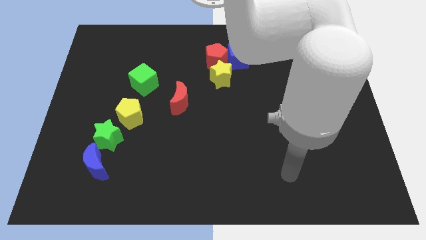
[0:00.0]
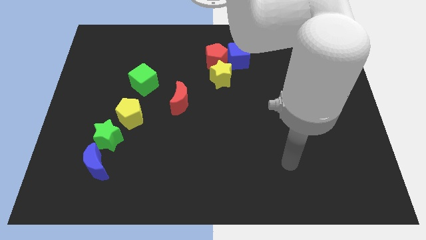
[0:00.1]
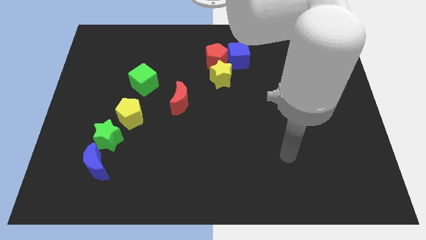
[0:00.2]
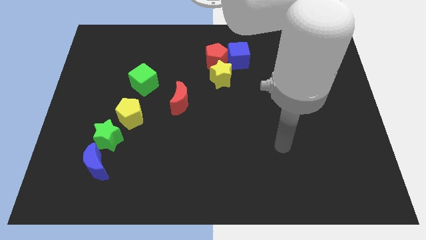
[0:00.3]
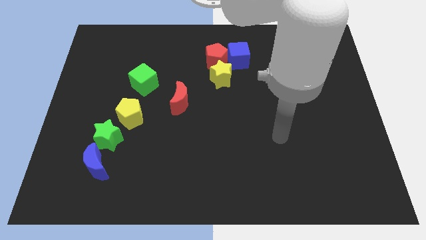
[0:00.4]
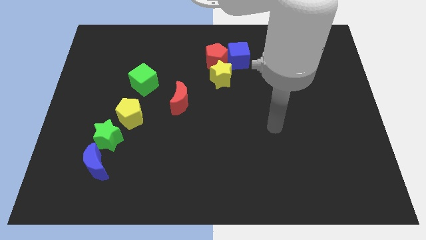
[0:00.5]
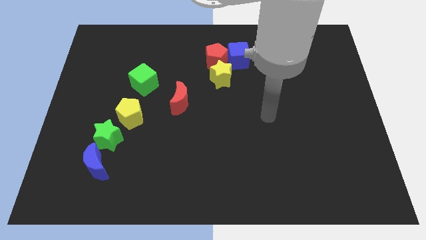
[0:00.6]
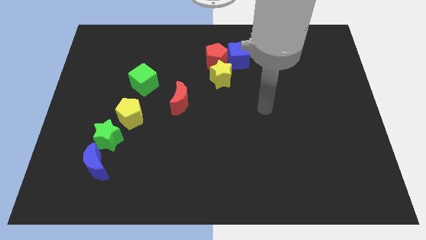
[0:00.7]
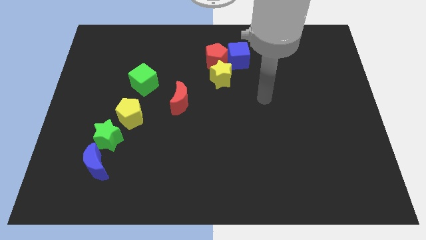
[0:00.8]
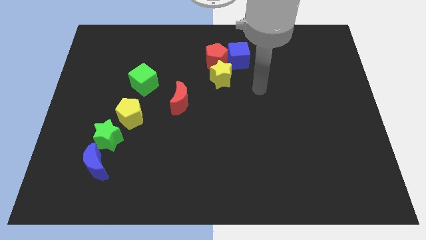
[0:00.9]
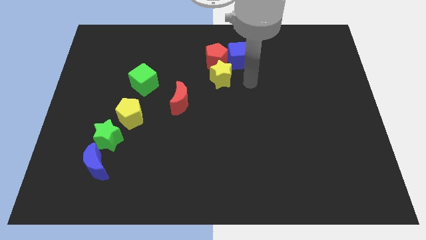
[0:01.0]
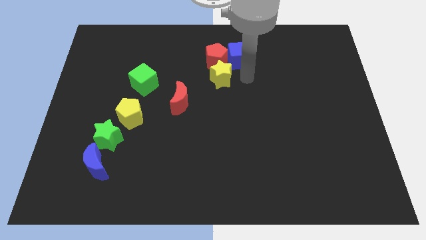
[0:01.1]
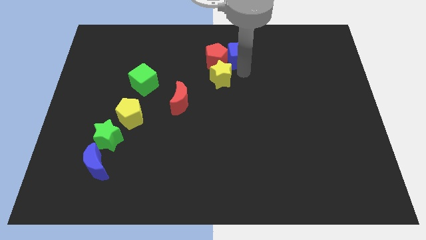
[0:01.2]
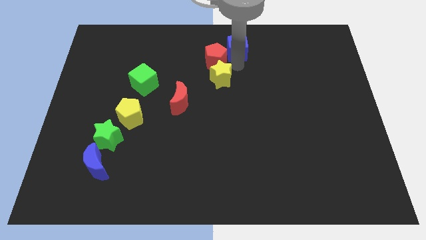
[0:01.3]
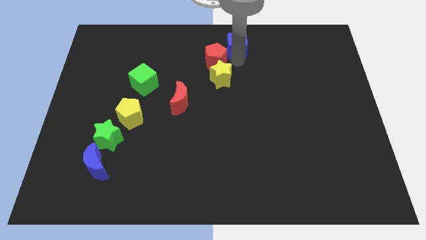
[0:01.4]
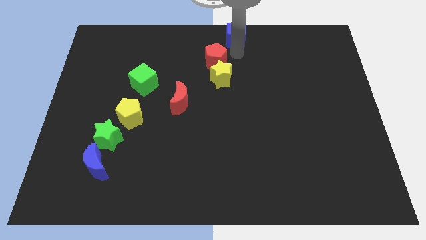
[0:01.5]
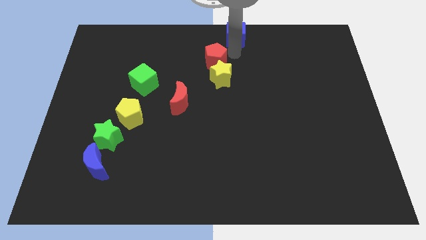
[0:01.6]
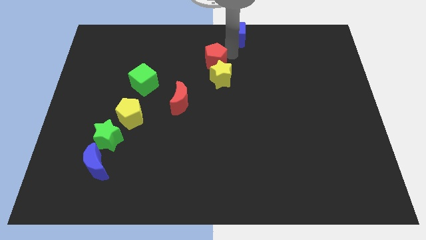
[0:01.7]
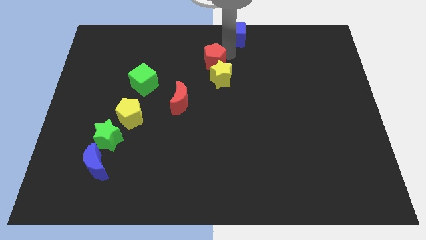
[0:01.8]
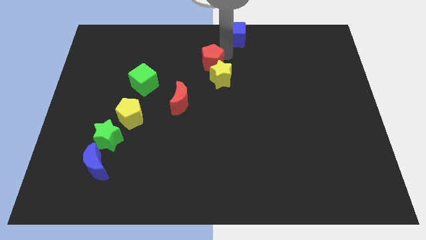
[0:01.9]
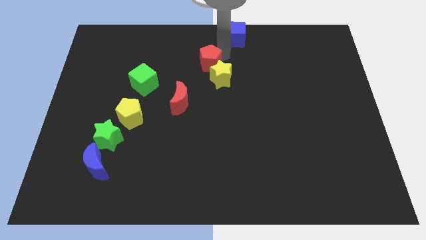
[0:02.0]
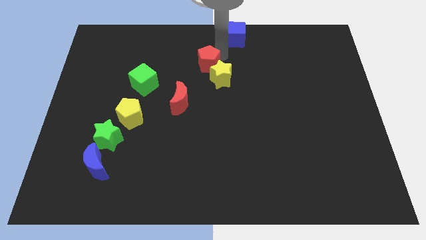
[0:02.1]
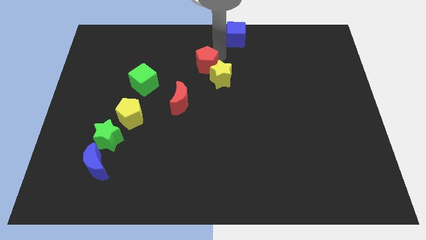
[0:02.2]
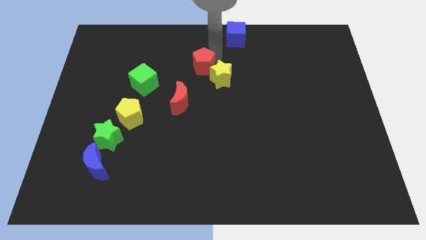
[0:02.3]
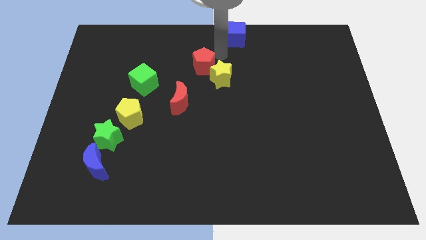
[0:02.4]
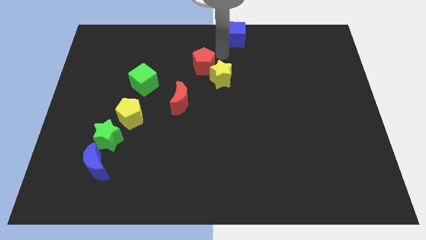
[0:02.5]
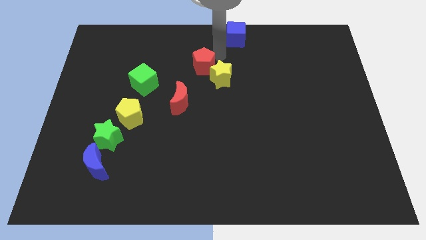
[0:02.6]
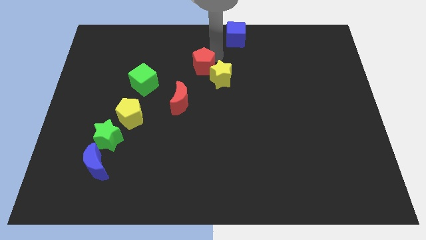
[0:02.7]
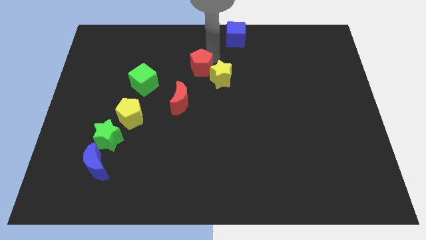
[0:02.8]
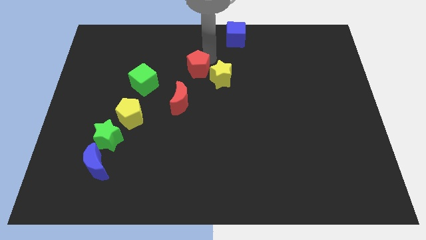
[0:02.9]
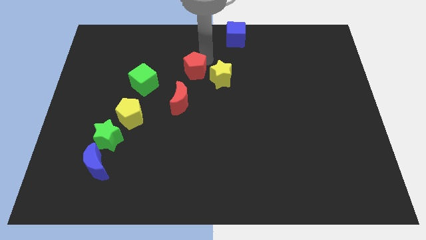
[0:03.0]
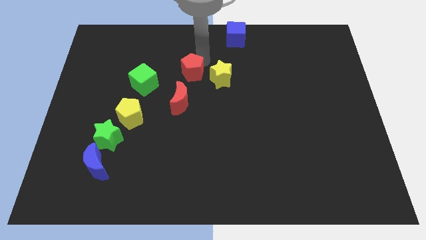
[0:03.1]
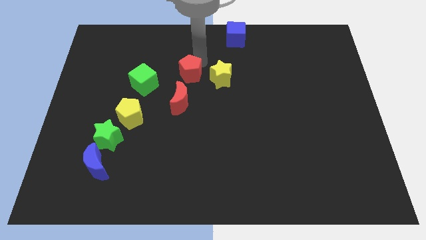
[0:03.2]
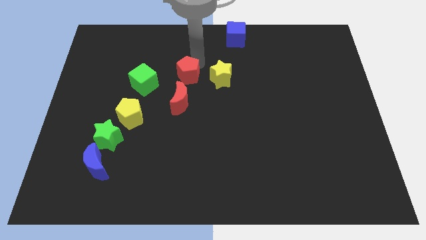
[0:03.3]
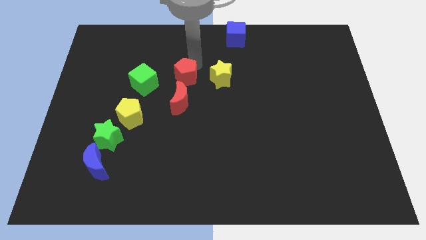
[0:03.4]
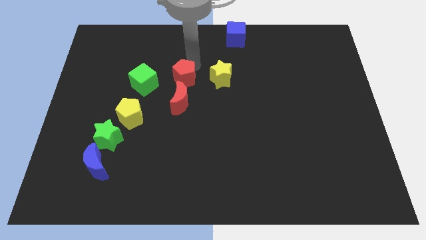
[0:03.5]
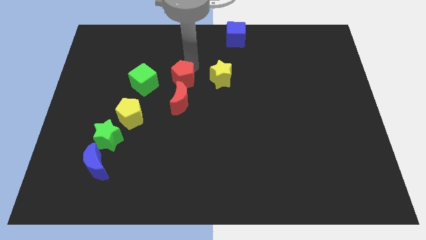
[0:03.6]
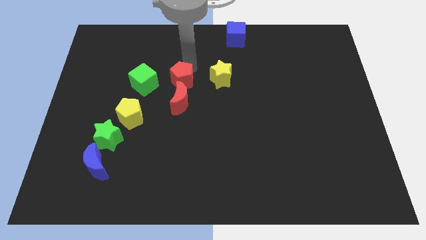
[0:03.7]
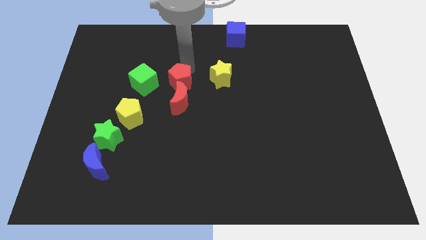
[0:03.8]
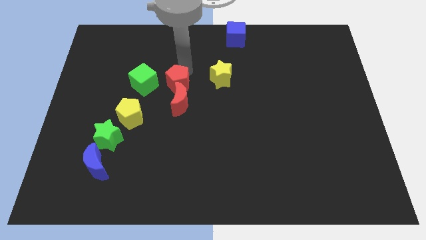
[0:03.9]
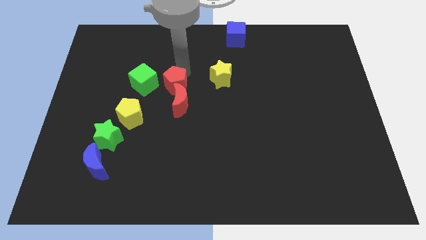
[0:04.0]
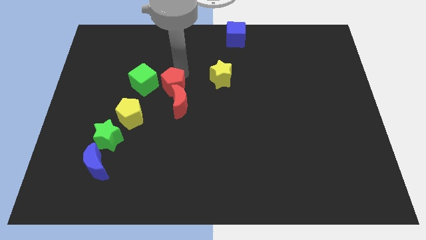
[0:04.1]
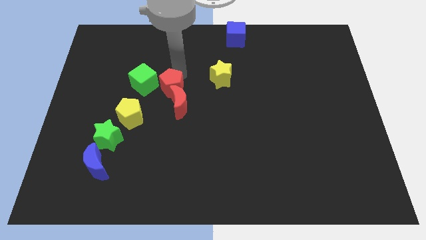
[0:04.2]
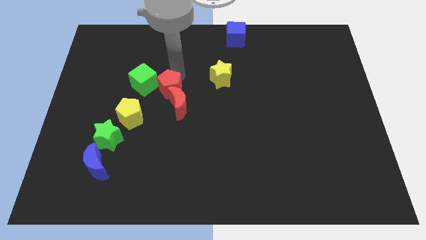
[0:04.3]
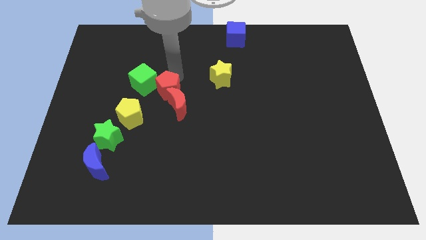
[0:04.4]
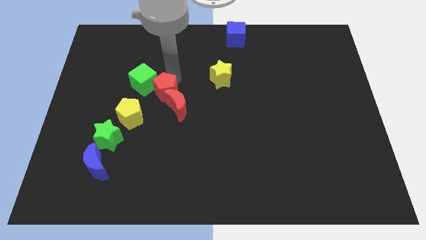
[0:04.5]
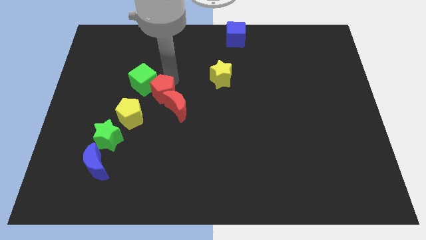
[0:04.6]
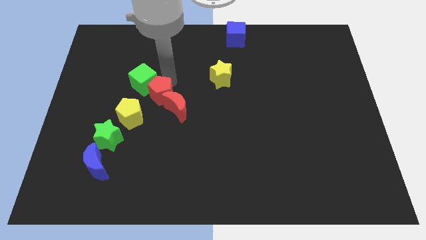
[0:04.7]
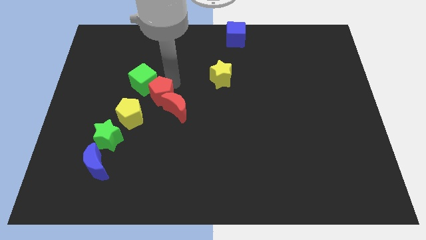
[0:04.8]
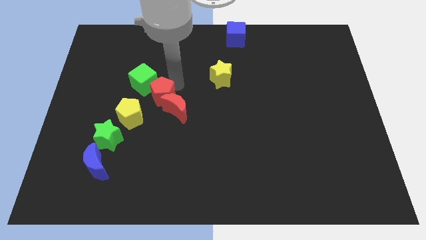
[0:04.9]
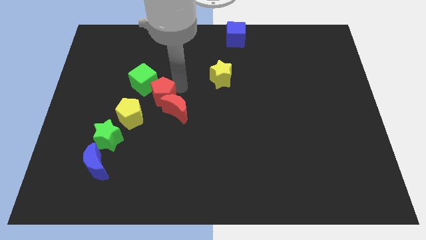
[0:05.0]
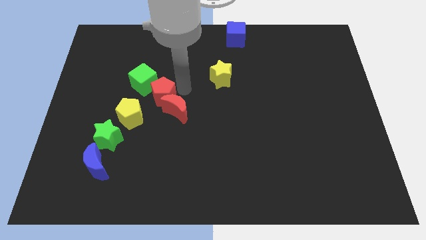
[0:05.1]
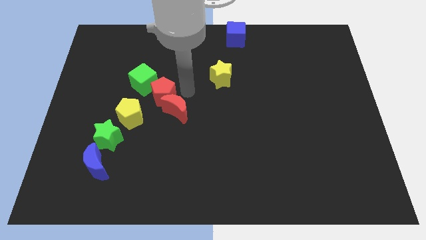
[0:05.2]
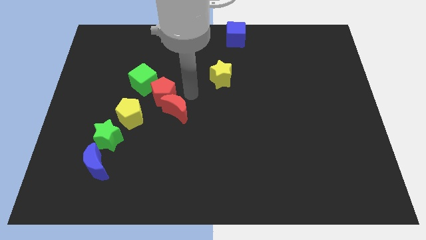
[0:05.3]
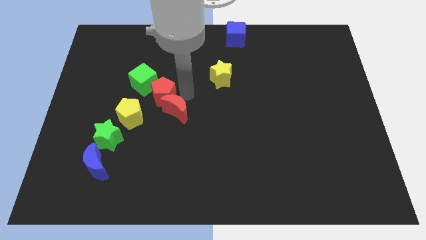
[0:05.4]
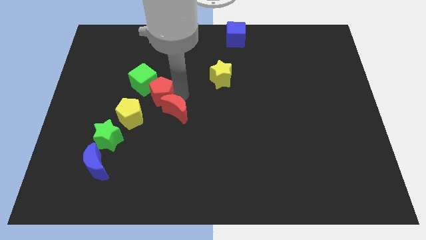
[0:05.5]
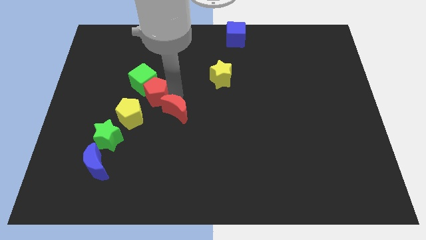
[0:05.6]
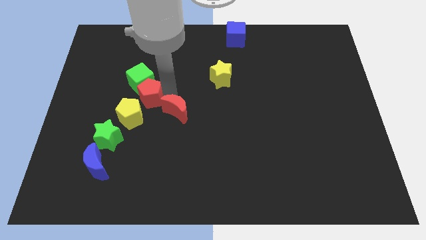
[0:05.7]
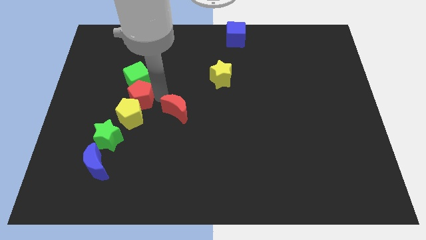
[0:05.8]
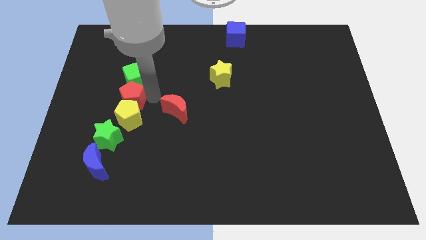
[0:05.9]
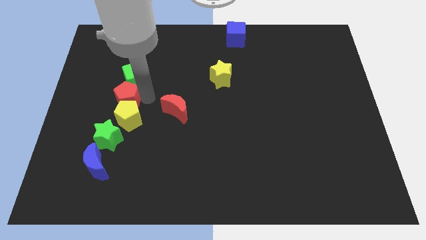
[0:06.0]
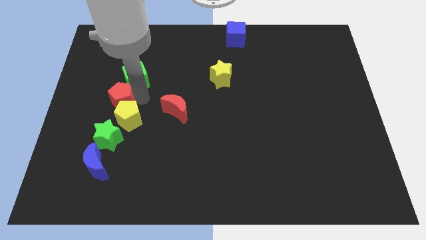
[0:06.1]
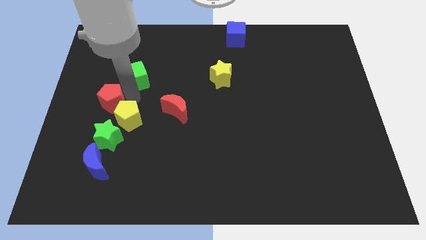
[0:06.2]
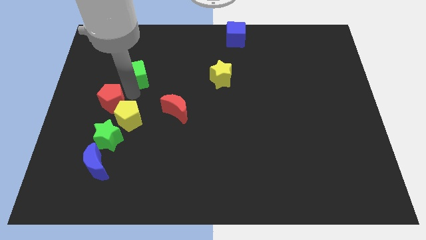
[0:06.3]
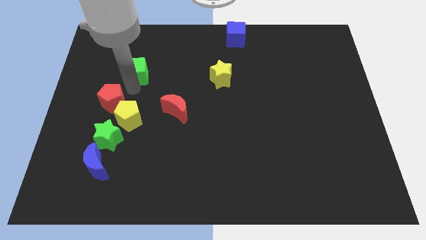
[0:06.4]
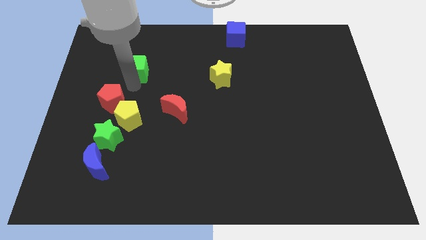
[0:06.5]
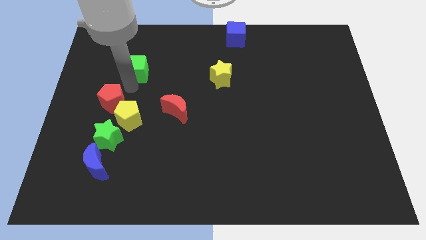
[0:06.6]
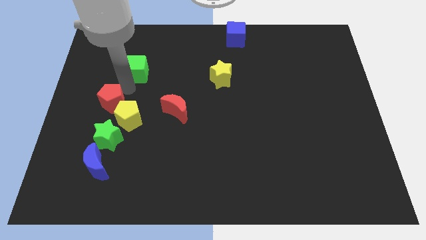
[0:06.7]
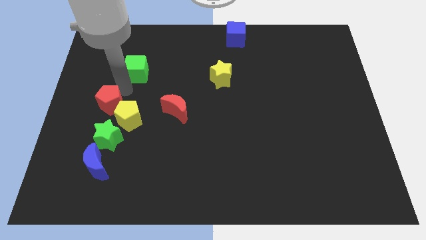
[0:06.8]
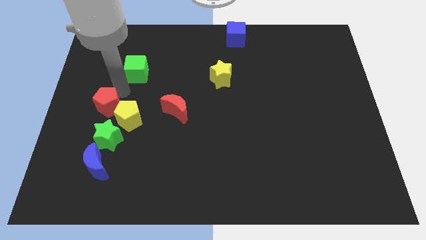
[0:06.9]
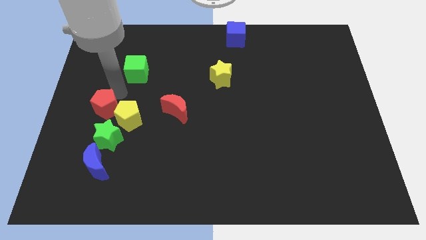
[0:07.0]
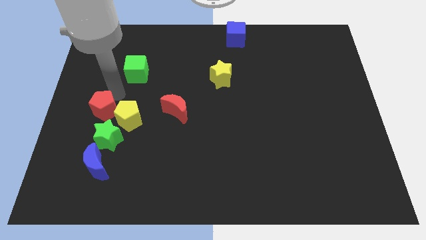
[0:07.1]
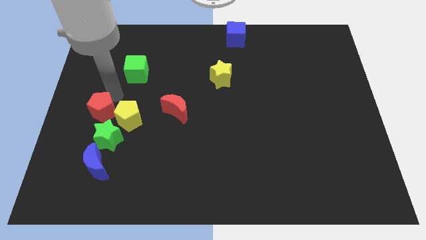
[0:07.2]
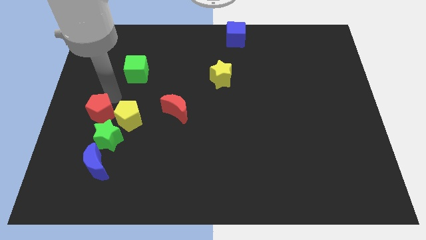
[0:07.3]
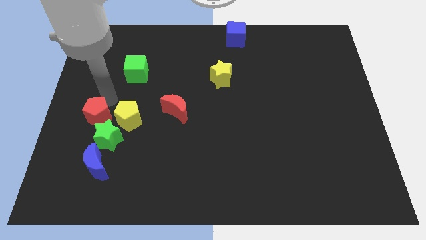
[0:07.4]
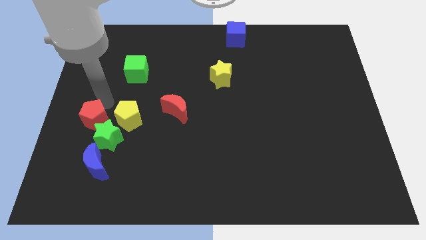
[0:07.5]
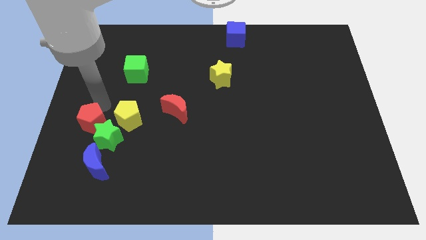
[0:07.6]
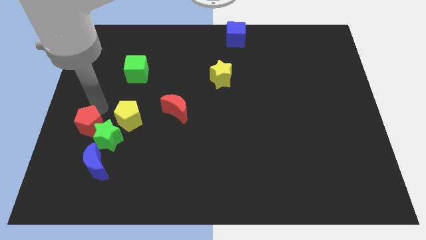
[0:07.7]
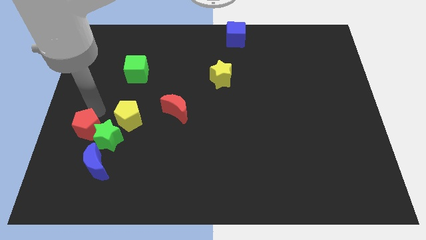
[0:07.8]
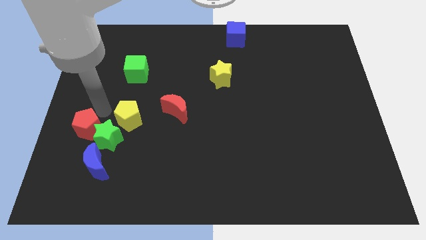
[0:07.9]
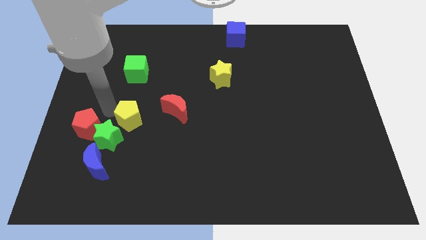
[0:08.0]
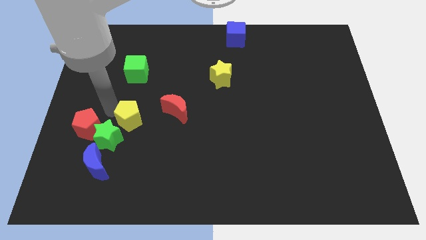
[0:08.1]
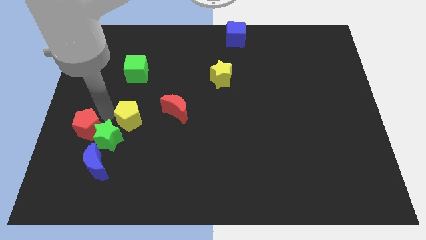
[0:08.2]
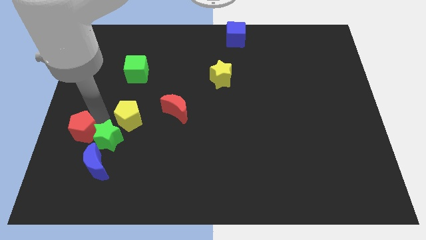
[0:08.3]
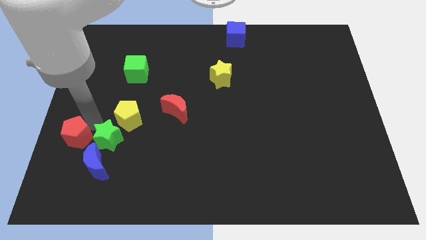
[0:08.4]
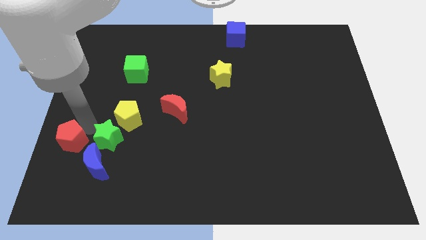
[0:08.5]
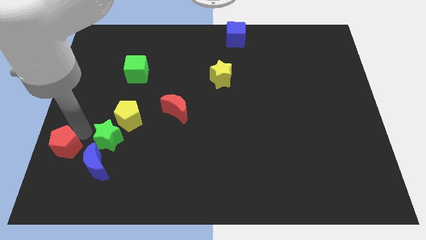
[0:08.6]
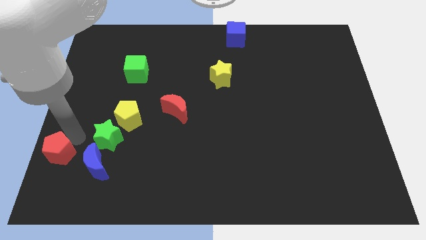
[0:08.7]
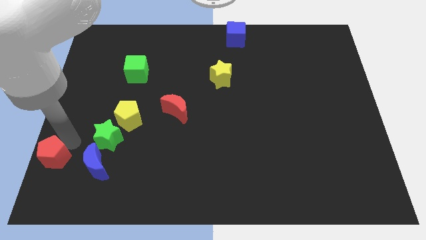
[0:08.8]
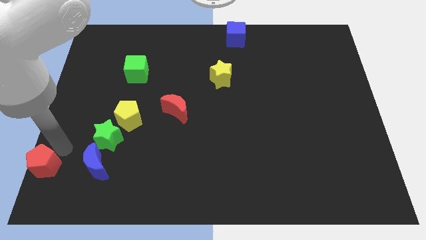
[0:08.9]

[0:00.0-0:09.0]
put the red pentagon to the bottom left of the board
